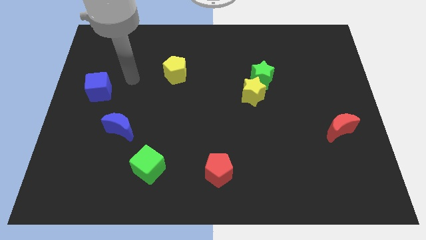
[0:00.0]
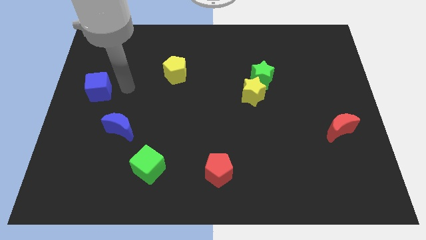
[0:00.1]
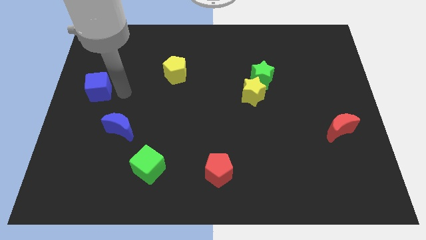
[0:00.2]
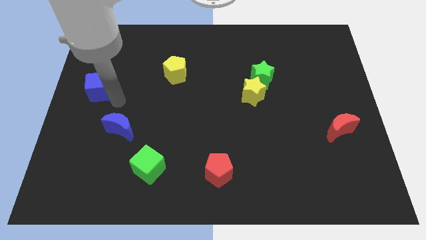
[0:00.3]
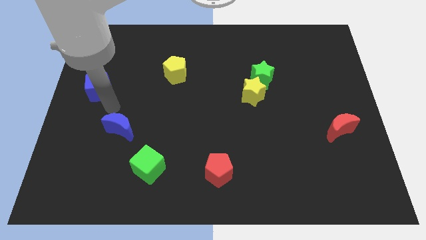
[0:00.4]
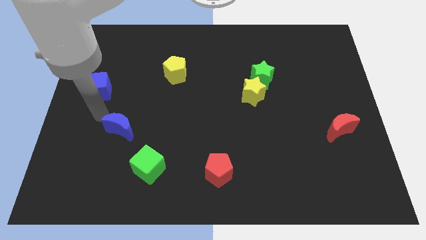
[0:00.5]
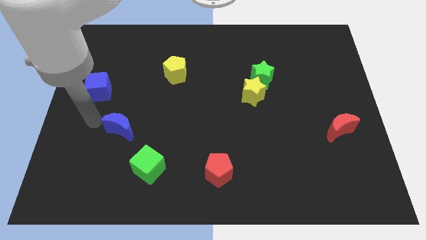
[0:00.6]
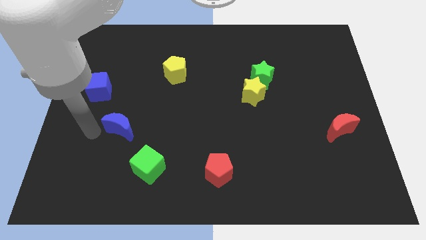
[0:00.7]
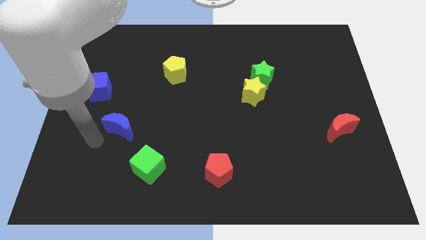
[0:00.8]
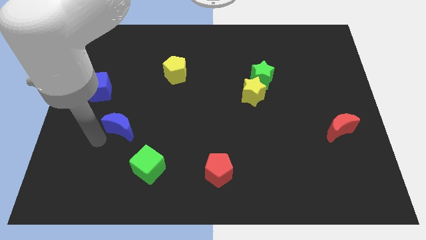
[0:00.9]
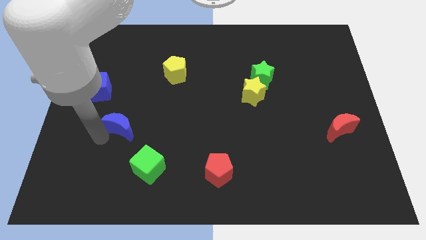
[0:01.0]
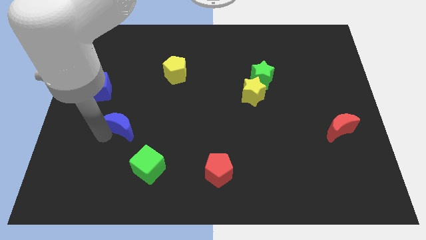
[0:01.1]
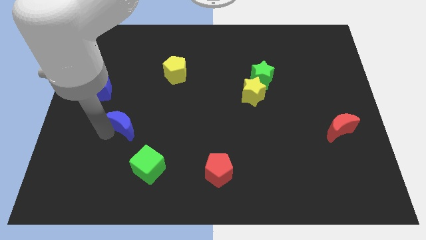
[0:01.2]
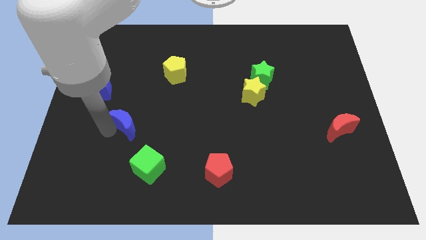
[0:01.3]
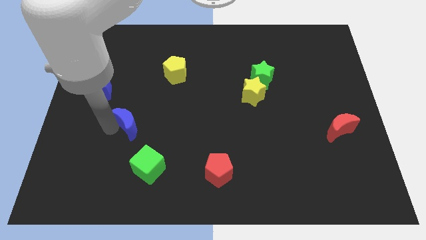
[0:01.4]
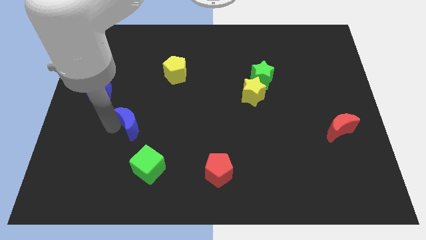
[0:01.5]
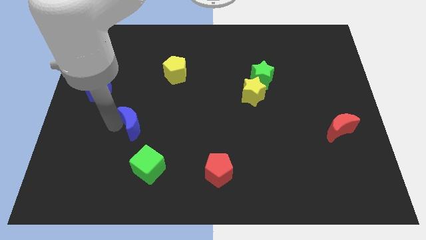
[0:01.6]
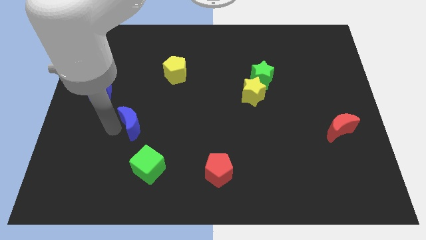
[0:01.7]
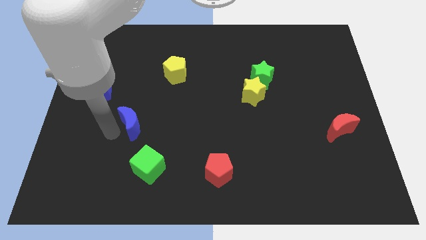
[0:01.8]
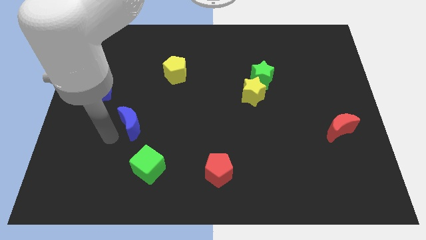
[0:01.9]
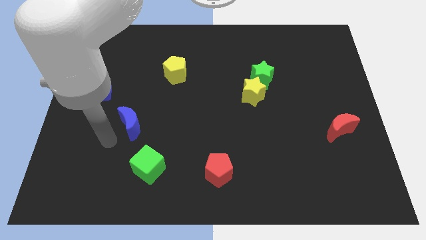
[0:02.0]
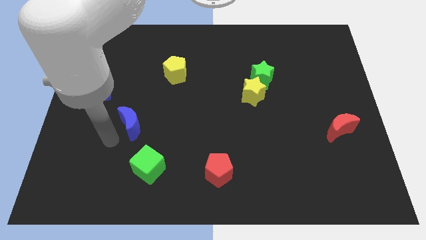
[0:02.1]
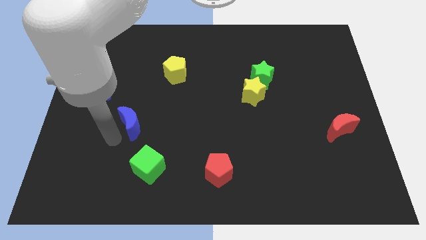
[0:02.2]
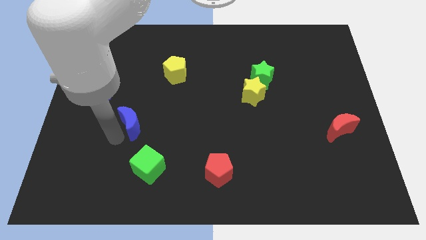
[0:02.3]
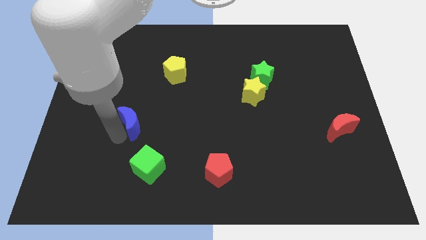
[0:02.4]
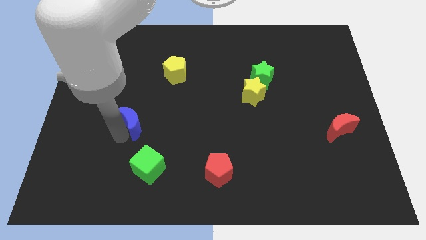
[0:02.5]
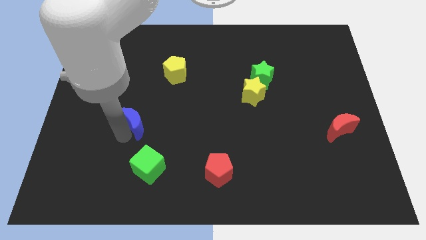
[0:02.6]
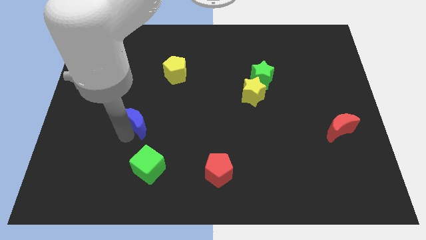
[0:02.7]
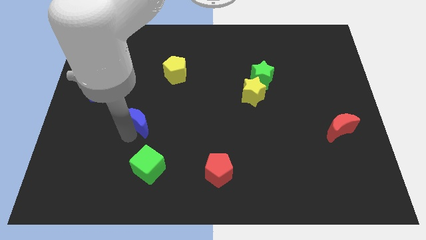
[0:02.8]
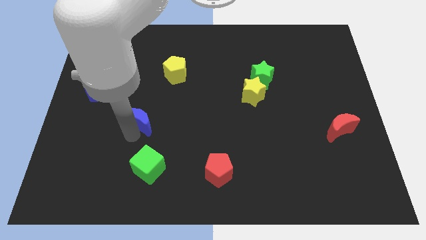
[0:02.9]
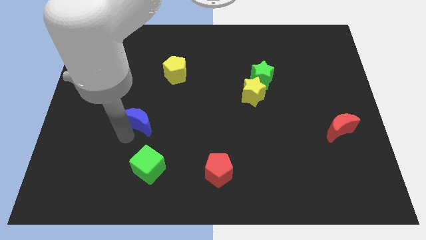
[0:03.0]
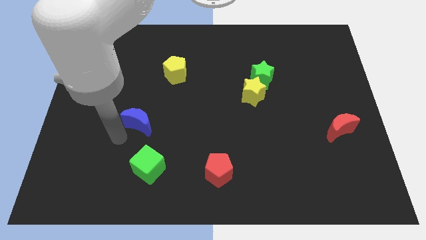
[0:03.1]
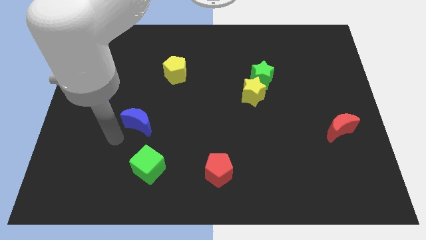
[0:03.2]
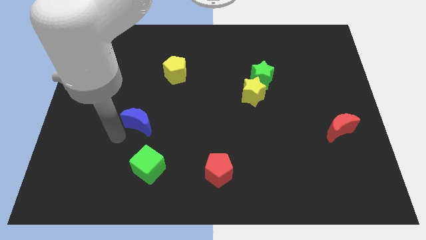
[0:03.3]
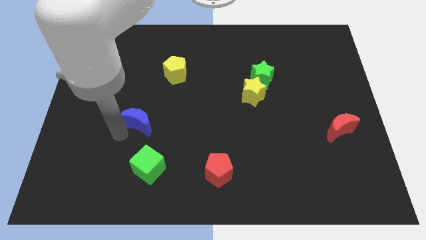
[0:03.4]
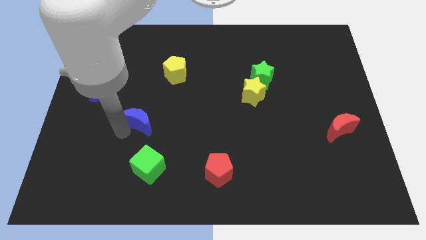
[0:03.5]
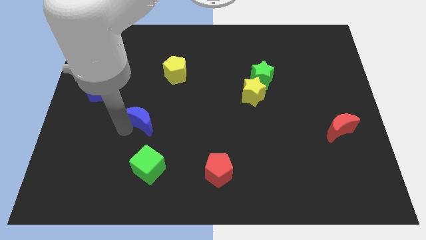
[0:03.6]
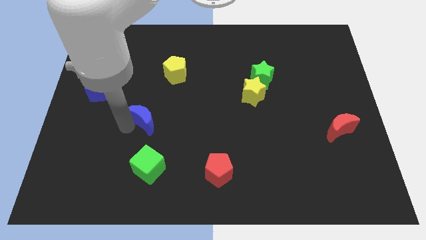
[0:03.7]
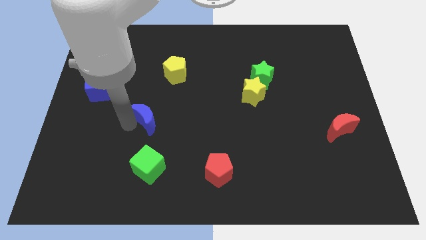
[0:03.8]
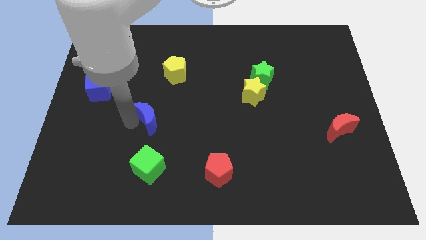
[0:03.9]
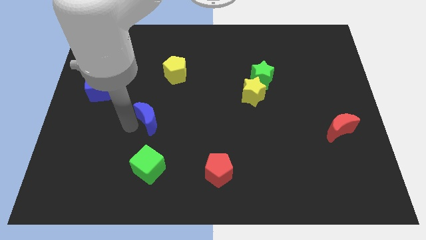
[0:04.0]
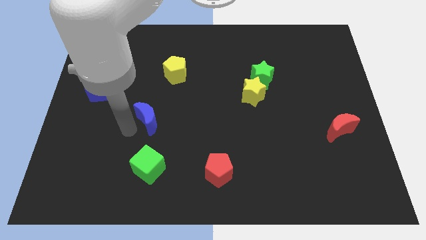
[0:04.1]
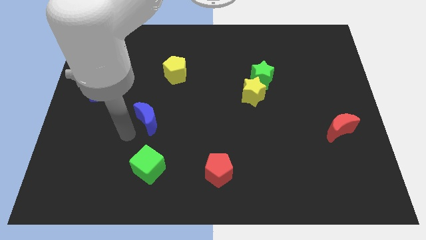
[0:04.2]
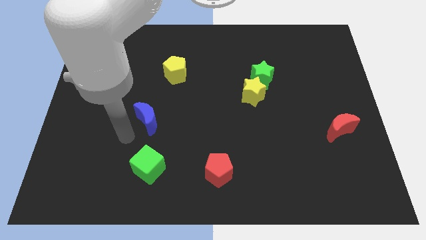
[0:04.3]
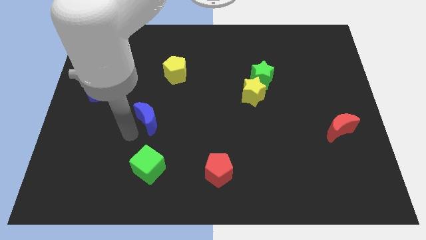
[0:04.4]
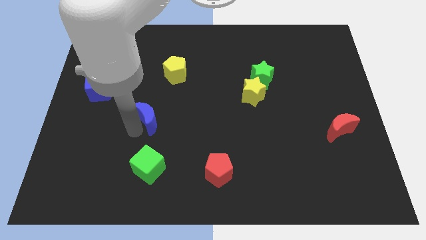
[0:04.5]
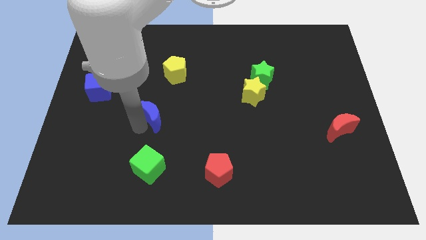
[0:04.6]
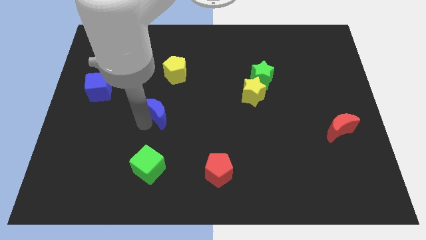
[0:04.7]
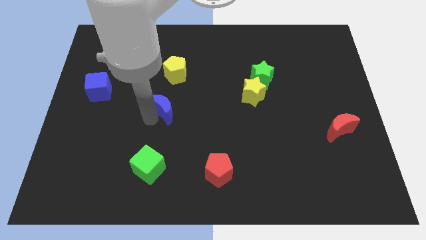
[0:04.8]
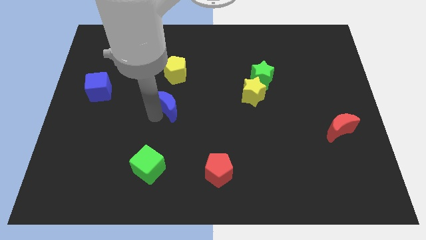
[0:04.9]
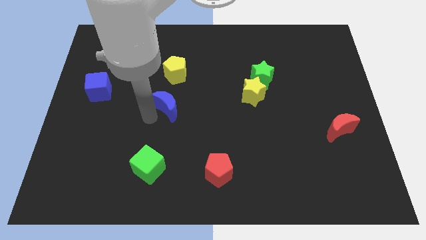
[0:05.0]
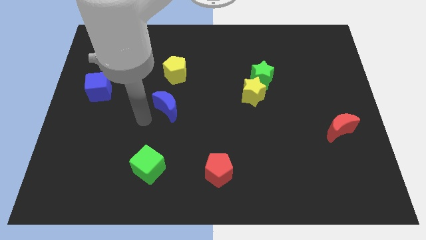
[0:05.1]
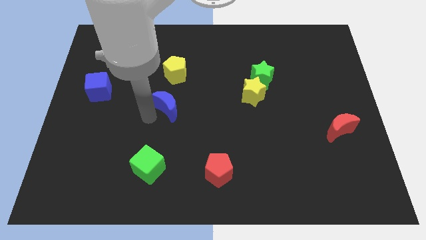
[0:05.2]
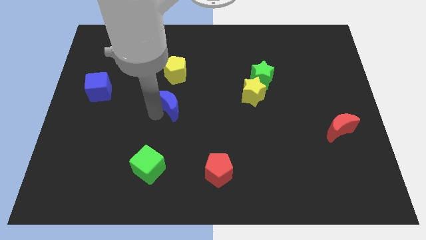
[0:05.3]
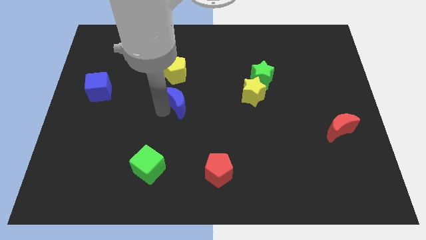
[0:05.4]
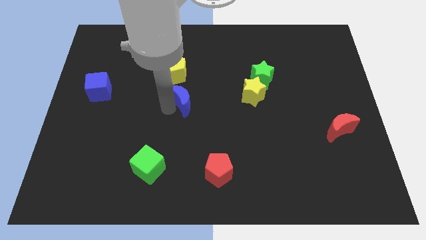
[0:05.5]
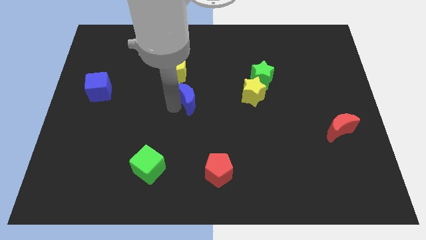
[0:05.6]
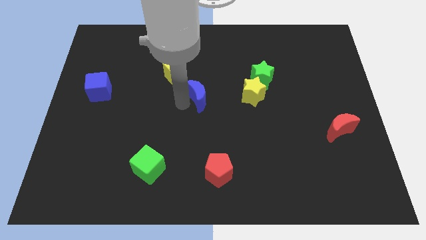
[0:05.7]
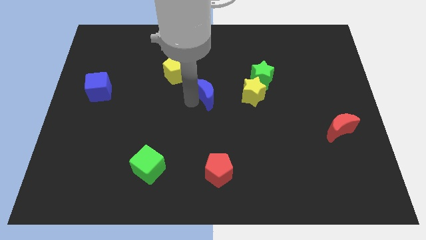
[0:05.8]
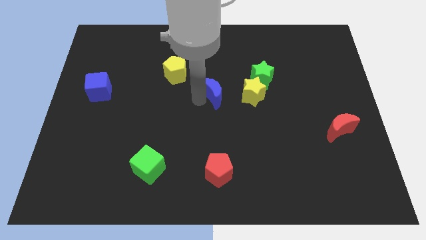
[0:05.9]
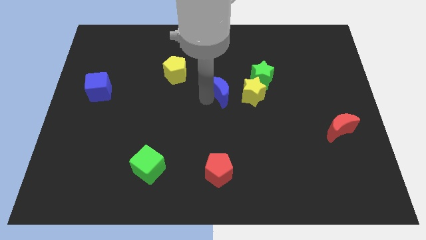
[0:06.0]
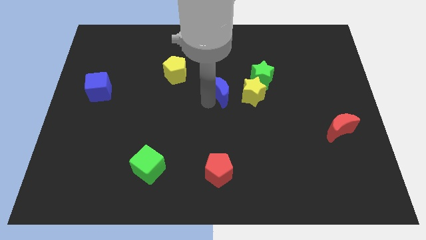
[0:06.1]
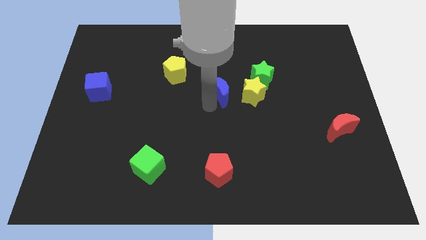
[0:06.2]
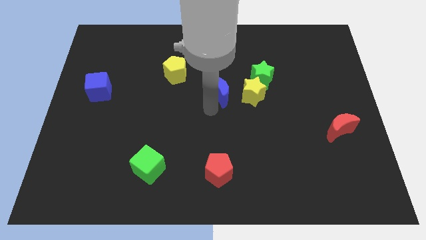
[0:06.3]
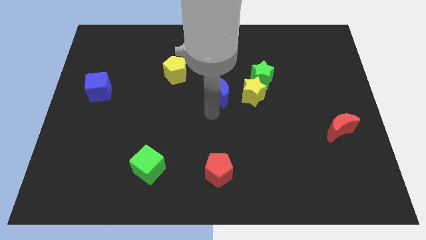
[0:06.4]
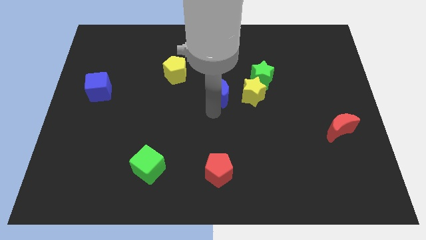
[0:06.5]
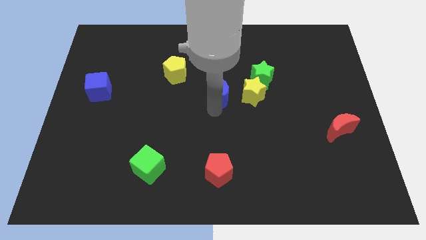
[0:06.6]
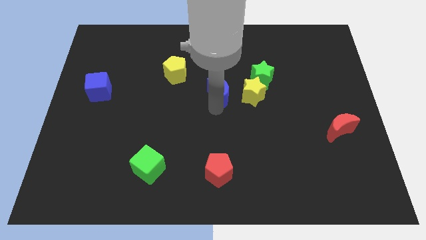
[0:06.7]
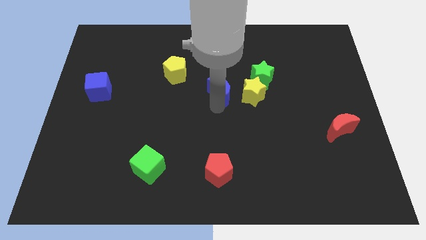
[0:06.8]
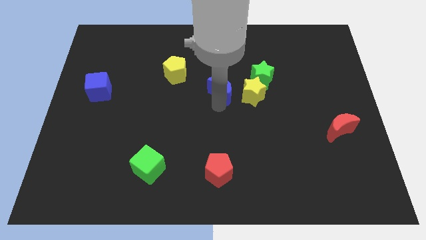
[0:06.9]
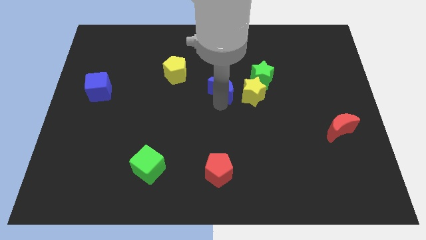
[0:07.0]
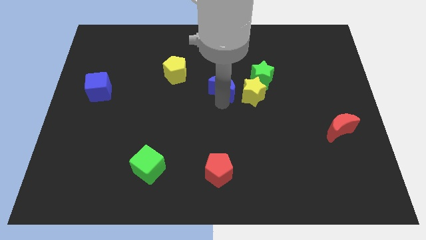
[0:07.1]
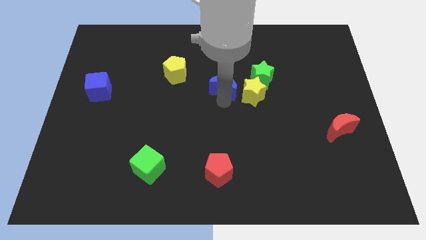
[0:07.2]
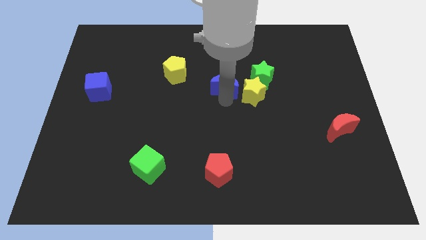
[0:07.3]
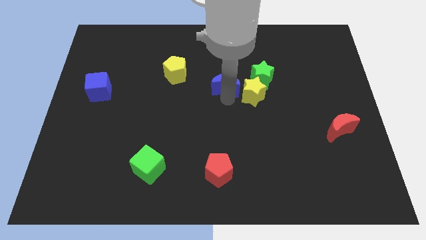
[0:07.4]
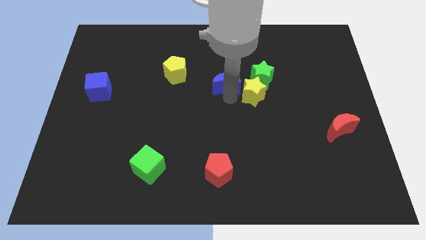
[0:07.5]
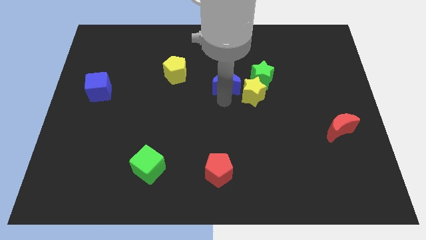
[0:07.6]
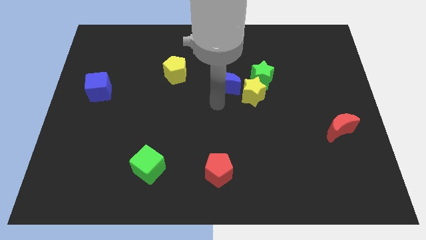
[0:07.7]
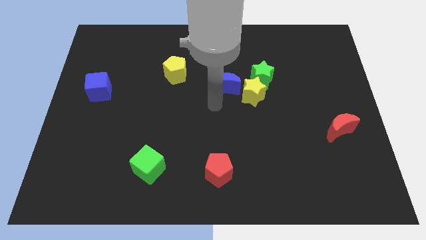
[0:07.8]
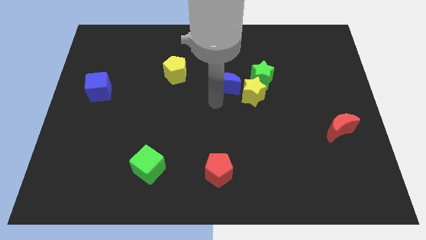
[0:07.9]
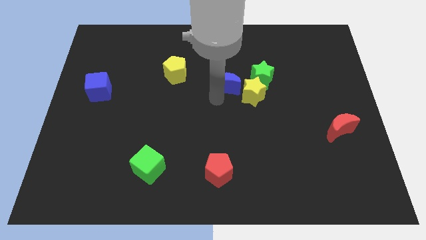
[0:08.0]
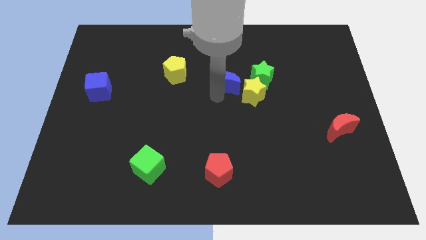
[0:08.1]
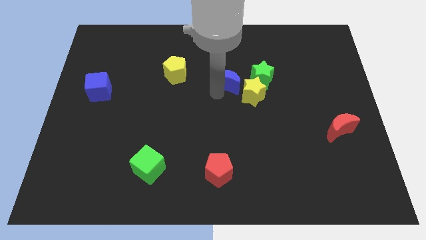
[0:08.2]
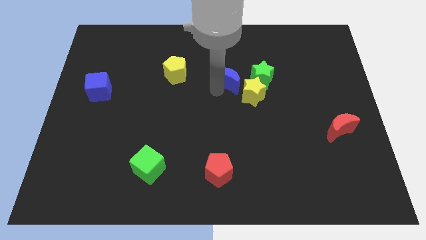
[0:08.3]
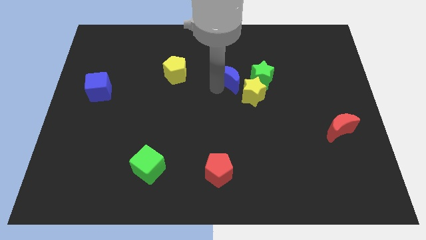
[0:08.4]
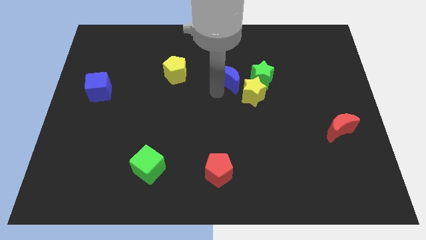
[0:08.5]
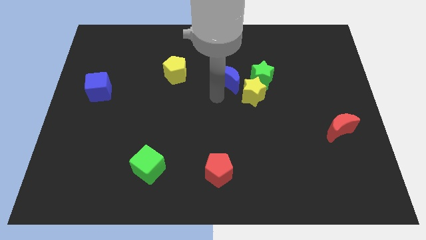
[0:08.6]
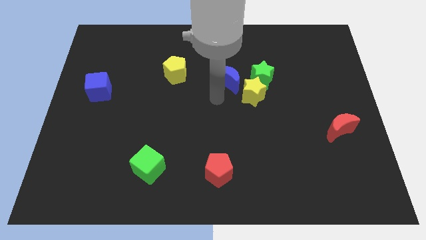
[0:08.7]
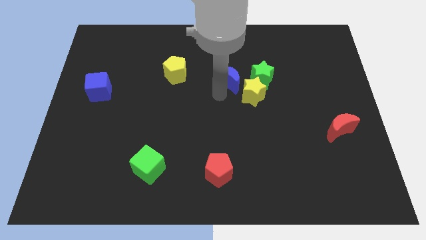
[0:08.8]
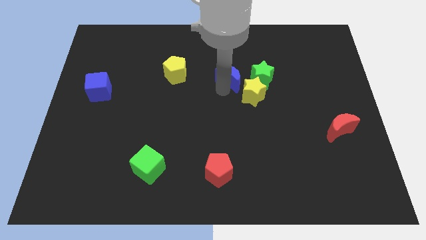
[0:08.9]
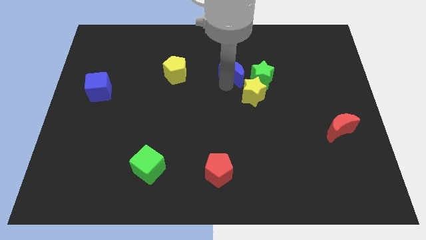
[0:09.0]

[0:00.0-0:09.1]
move the blue moon to the top left of the green star
